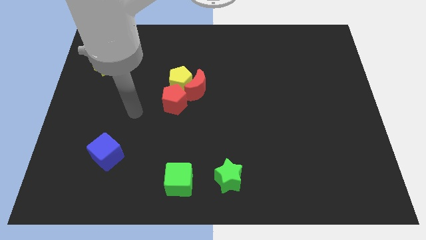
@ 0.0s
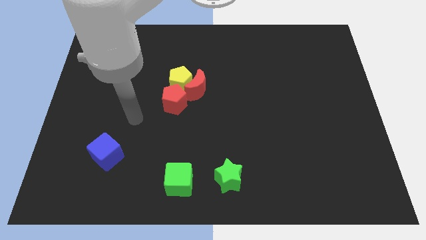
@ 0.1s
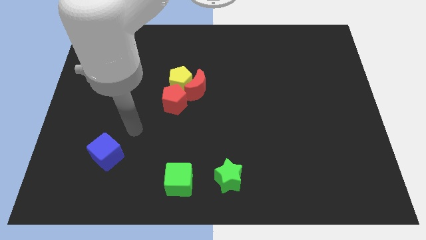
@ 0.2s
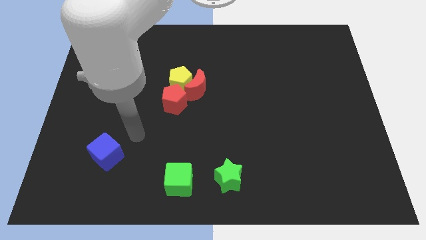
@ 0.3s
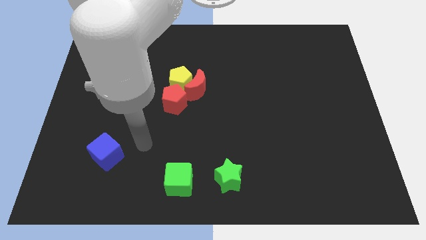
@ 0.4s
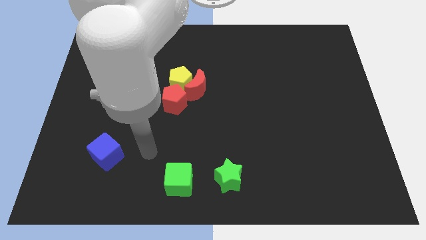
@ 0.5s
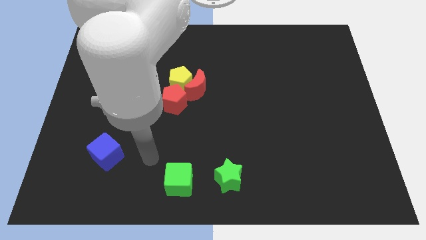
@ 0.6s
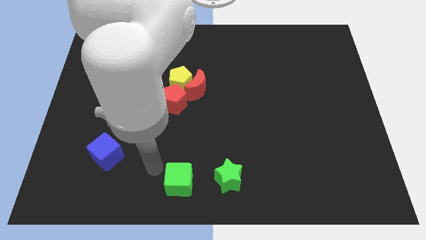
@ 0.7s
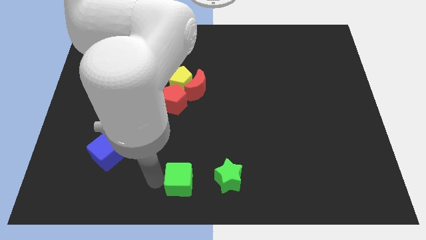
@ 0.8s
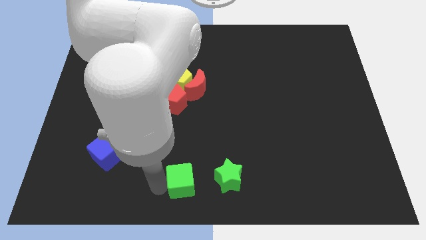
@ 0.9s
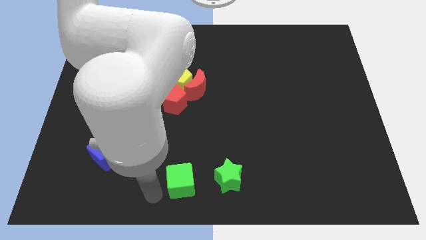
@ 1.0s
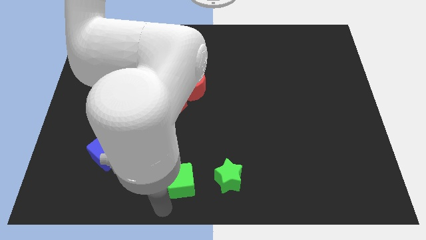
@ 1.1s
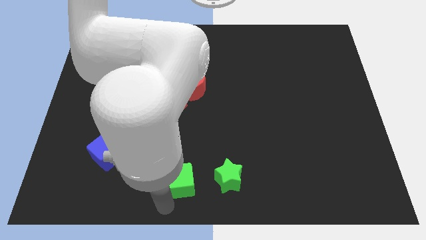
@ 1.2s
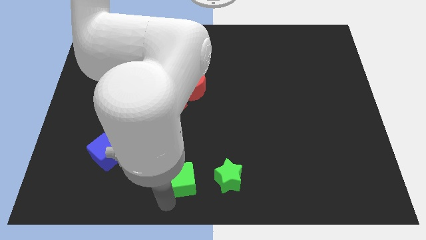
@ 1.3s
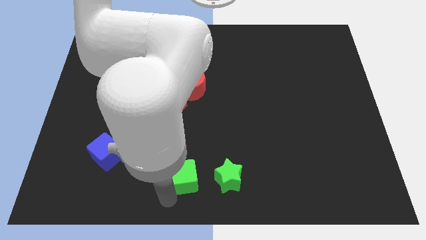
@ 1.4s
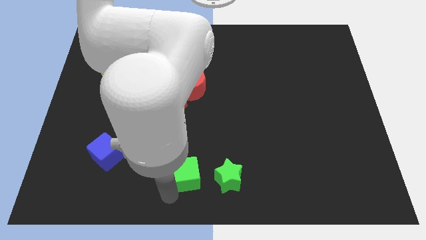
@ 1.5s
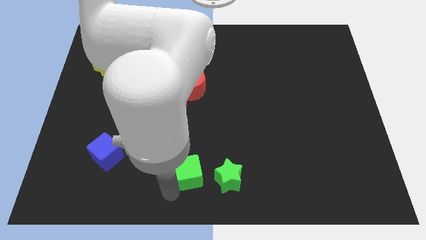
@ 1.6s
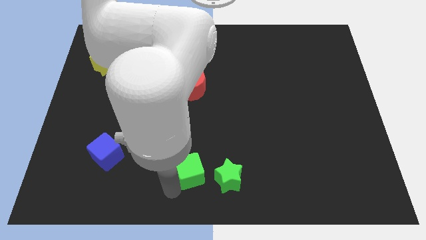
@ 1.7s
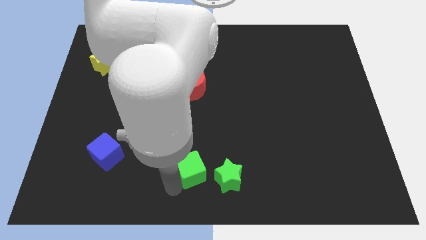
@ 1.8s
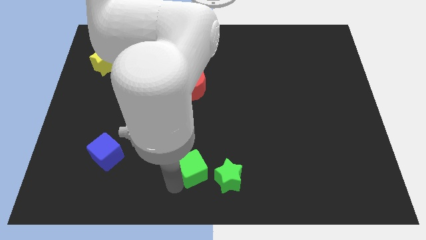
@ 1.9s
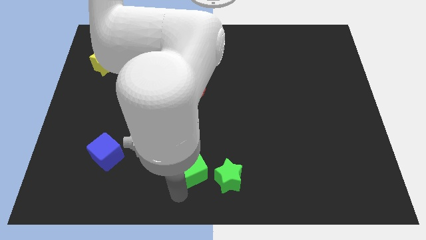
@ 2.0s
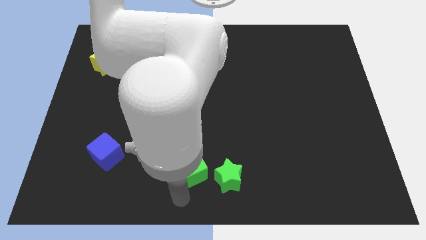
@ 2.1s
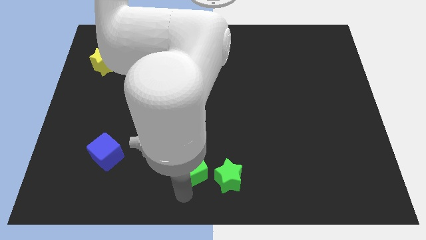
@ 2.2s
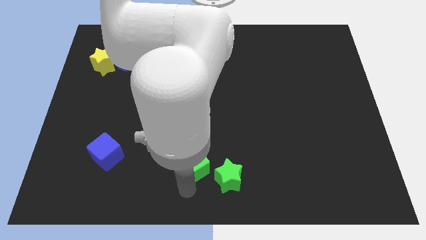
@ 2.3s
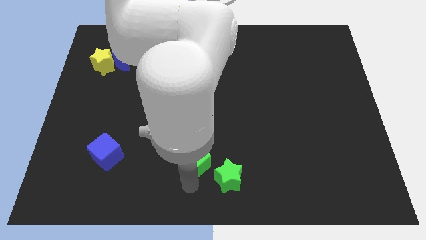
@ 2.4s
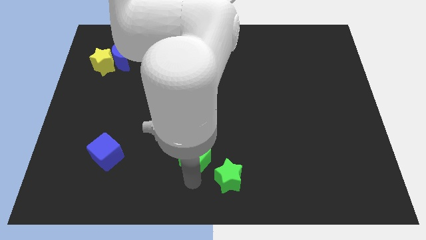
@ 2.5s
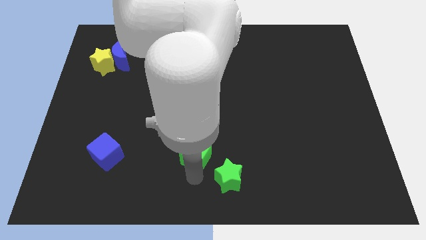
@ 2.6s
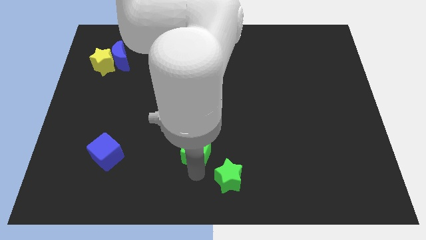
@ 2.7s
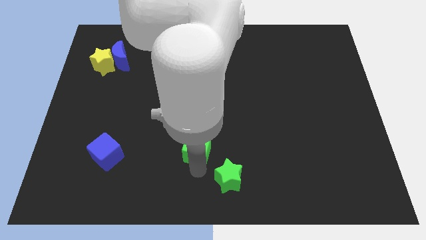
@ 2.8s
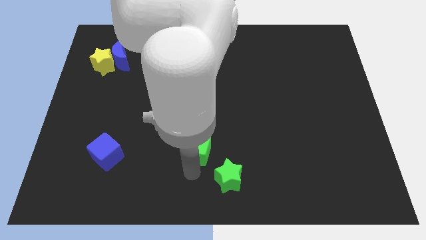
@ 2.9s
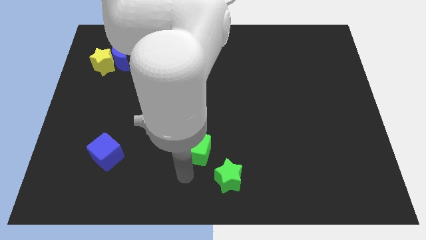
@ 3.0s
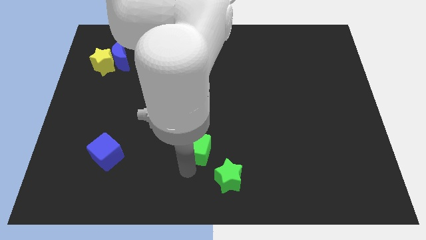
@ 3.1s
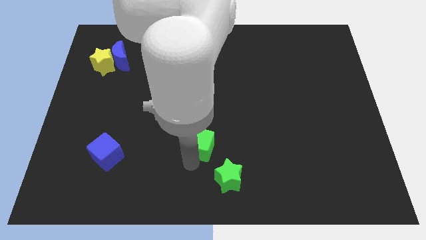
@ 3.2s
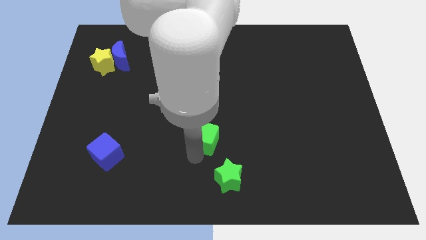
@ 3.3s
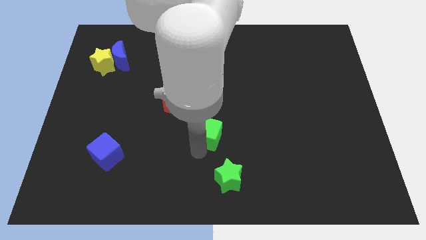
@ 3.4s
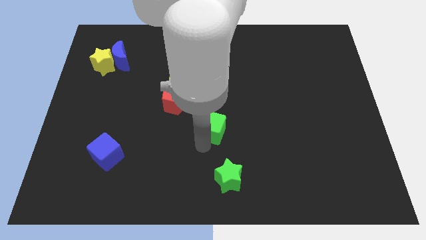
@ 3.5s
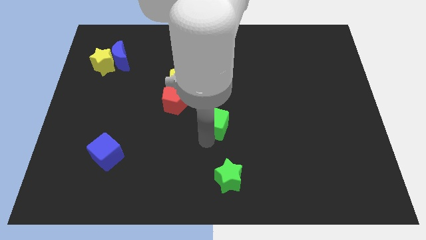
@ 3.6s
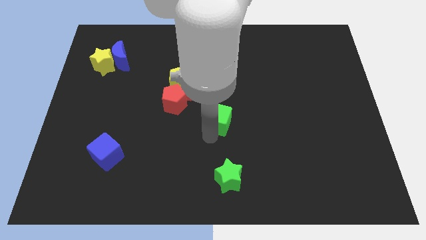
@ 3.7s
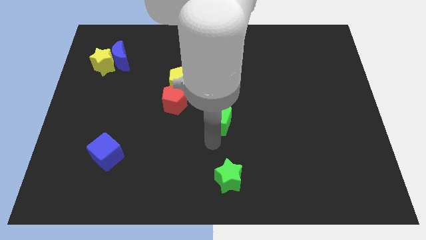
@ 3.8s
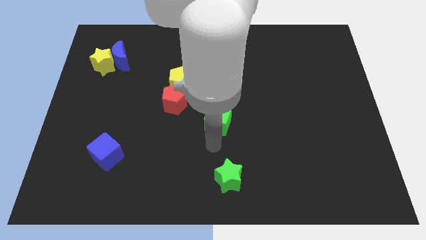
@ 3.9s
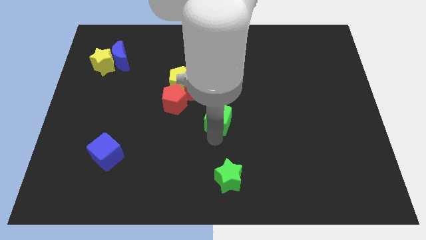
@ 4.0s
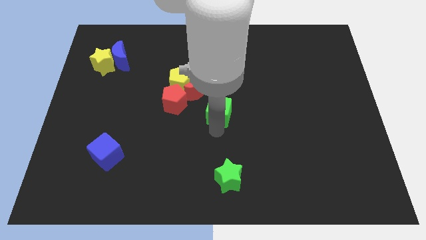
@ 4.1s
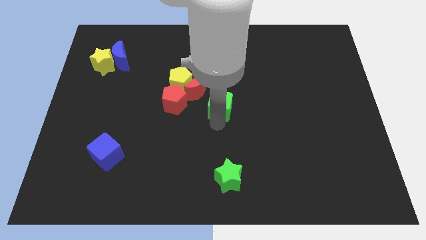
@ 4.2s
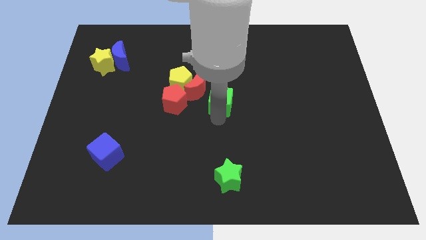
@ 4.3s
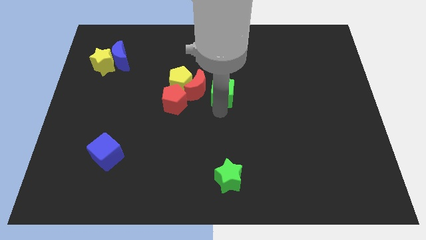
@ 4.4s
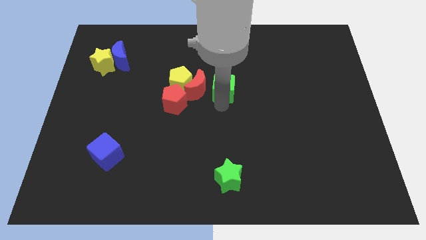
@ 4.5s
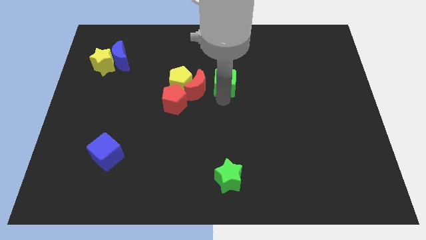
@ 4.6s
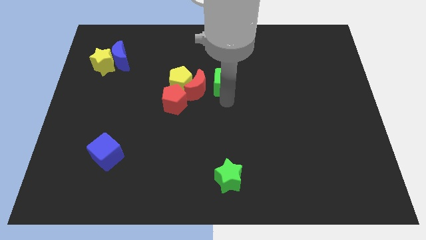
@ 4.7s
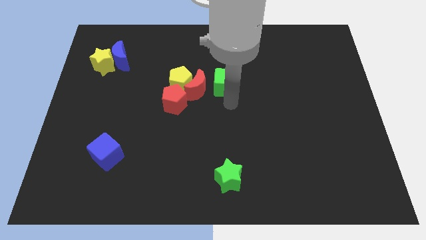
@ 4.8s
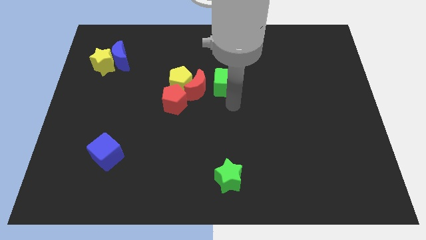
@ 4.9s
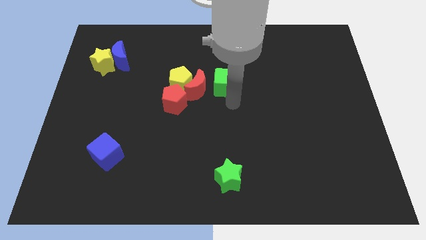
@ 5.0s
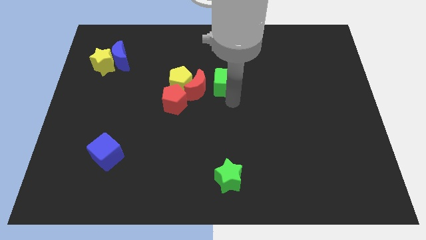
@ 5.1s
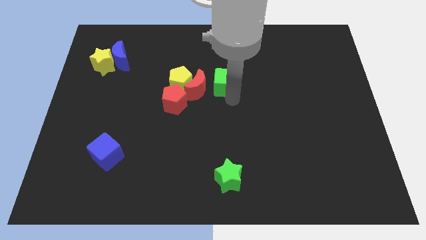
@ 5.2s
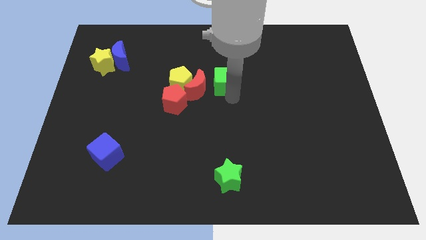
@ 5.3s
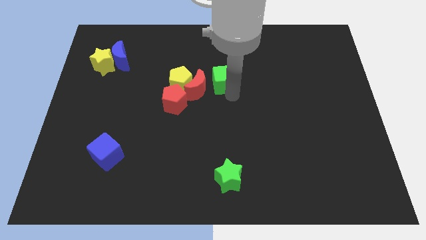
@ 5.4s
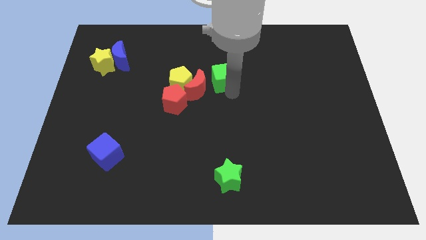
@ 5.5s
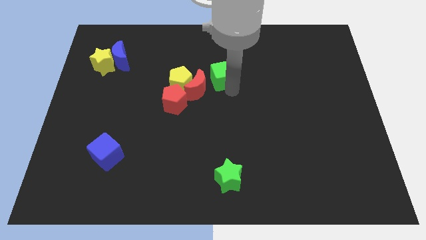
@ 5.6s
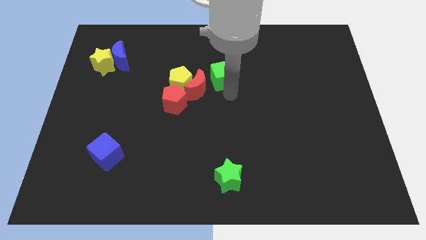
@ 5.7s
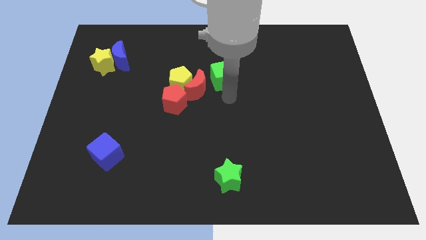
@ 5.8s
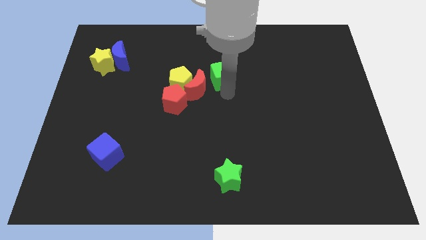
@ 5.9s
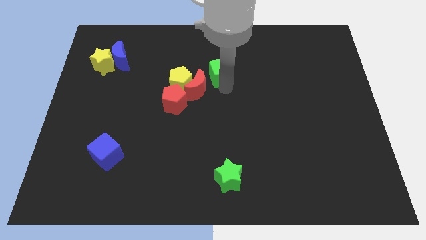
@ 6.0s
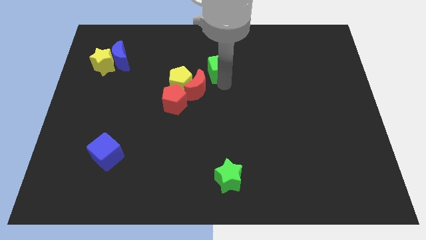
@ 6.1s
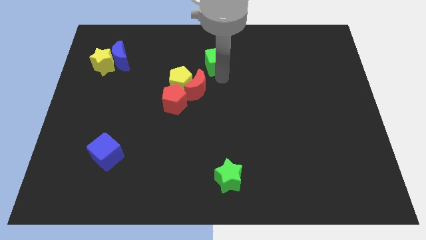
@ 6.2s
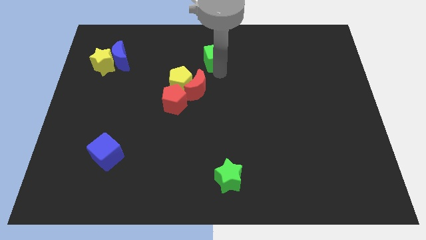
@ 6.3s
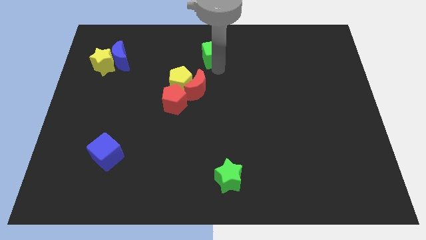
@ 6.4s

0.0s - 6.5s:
move the green cube to the towards your base
